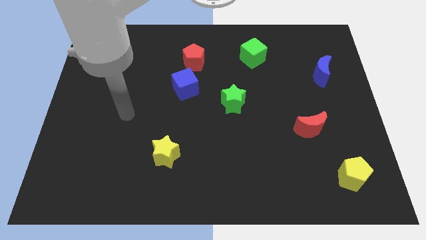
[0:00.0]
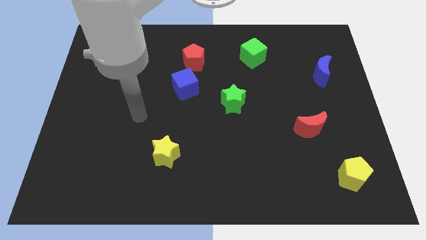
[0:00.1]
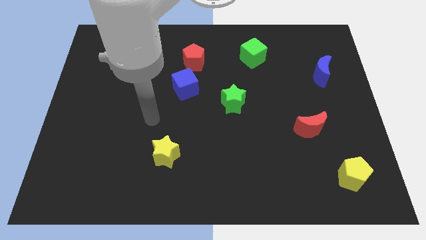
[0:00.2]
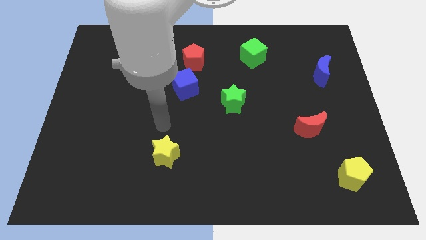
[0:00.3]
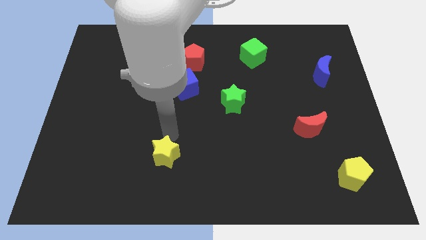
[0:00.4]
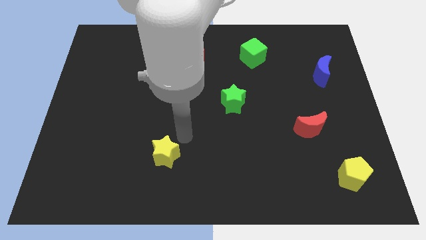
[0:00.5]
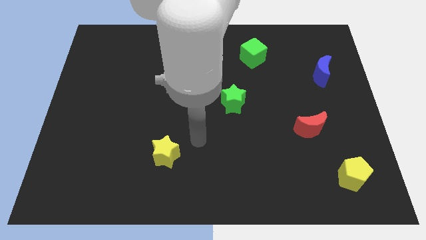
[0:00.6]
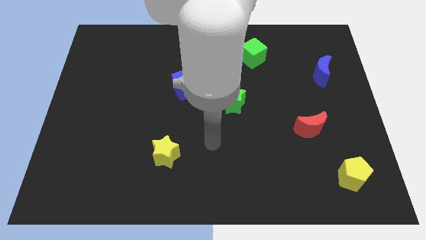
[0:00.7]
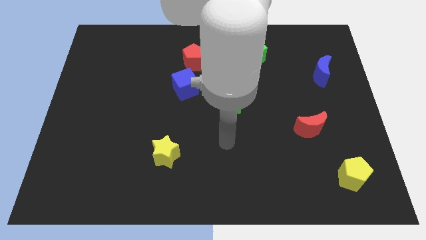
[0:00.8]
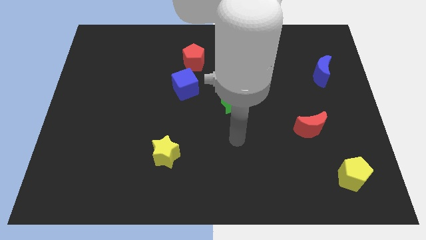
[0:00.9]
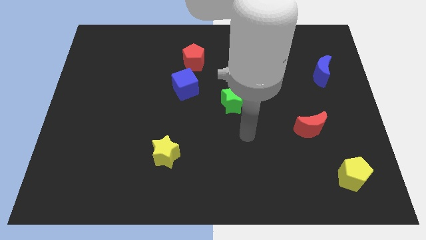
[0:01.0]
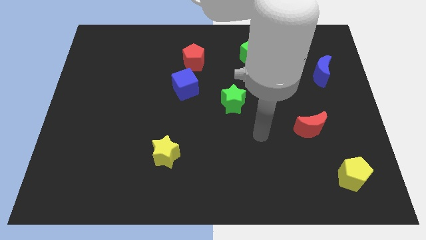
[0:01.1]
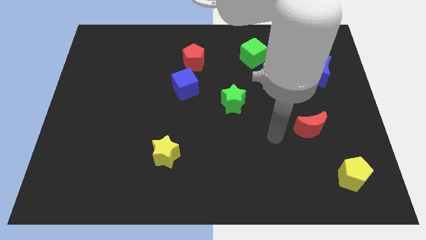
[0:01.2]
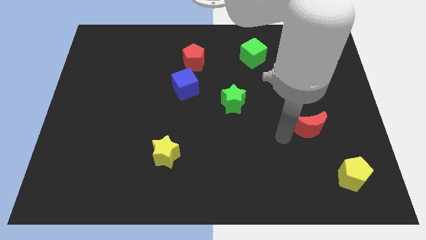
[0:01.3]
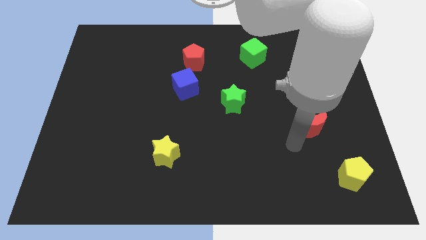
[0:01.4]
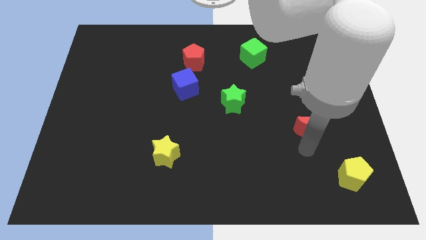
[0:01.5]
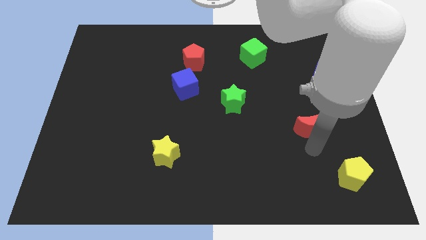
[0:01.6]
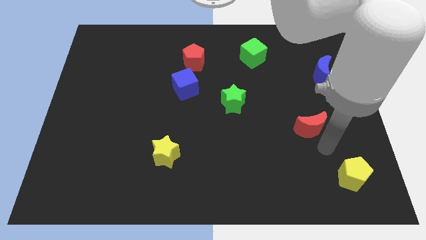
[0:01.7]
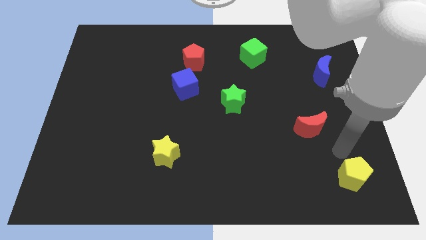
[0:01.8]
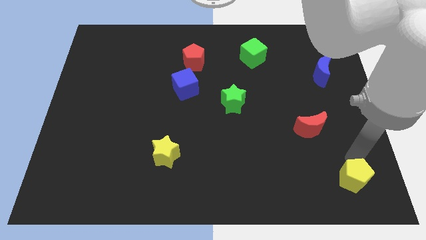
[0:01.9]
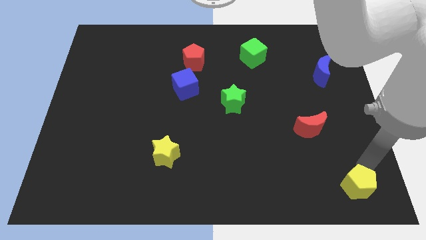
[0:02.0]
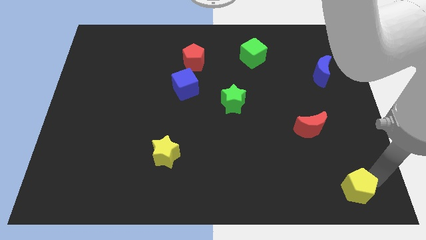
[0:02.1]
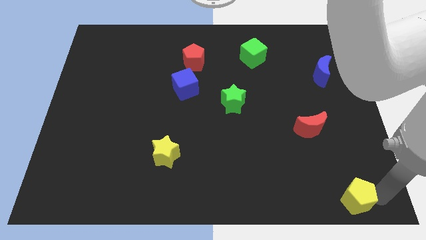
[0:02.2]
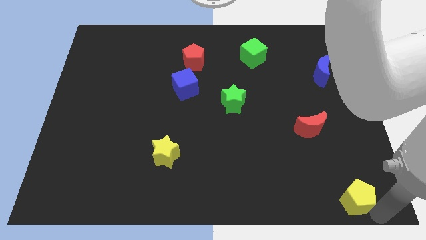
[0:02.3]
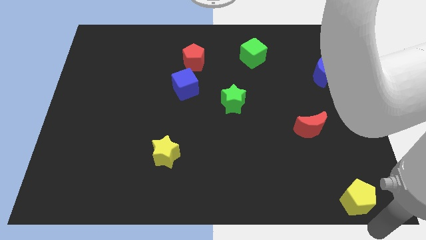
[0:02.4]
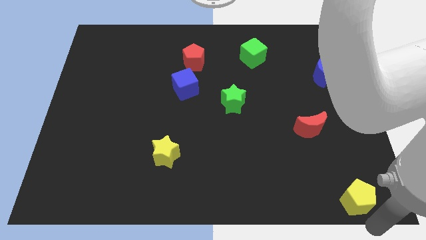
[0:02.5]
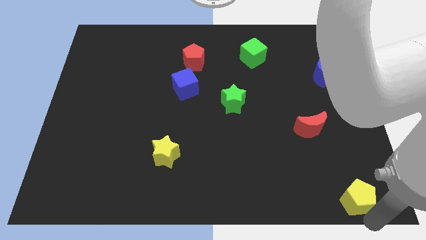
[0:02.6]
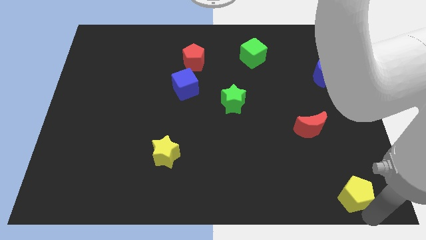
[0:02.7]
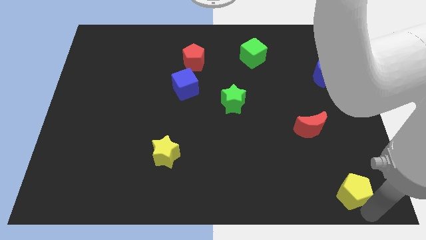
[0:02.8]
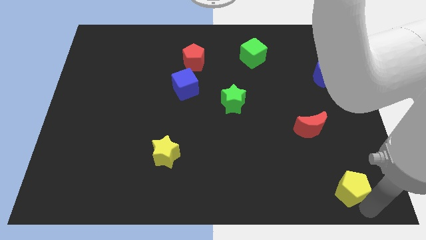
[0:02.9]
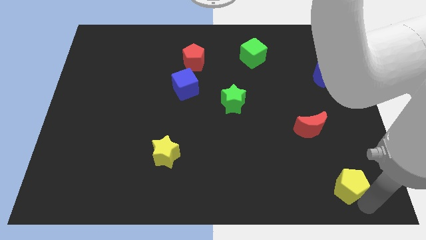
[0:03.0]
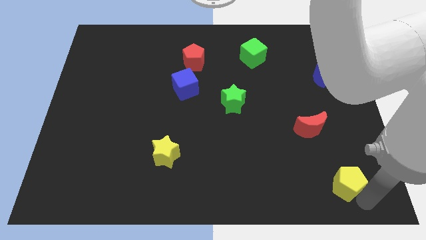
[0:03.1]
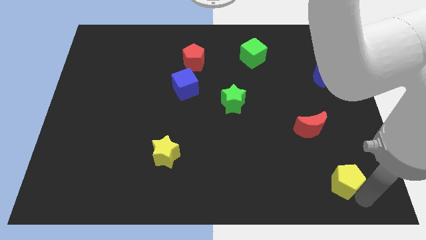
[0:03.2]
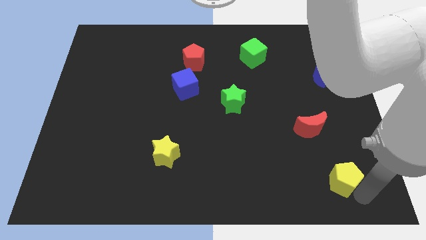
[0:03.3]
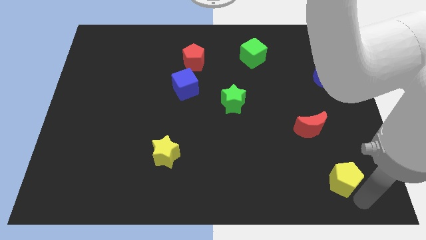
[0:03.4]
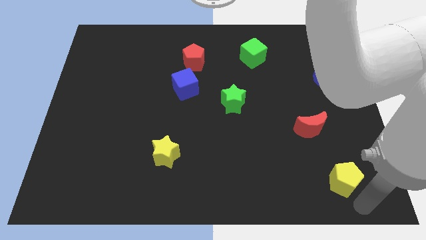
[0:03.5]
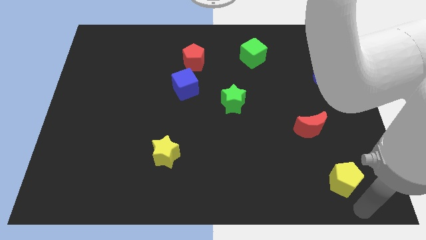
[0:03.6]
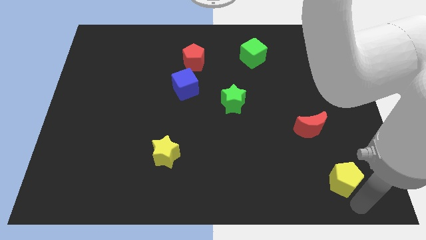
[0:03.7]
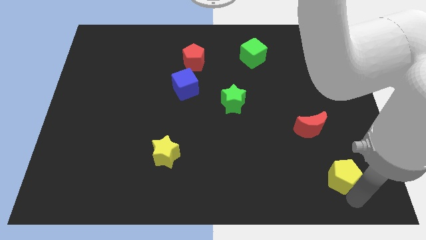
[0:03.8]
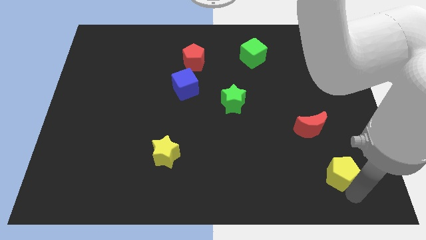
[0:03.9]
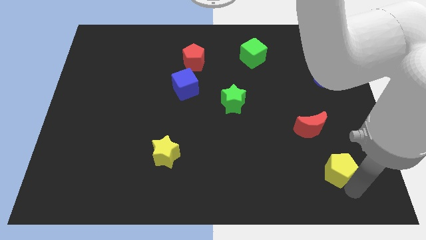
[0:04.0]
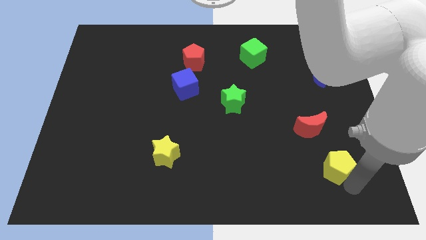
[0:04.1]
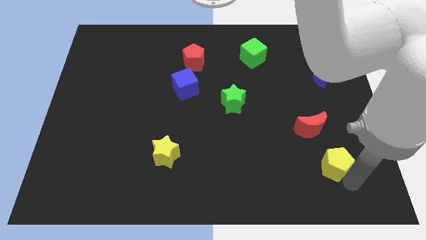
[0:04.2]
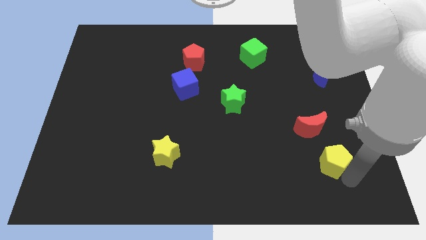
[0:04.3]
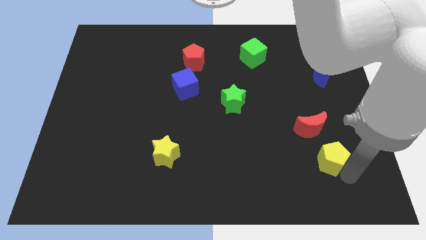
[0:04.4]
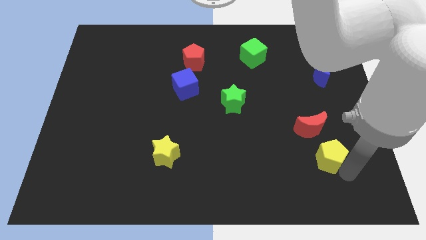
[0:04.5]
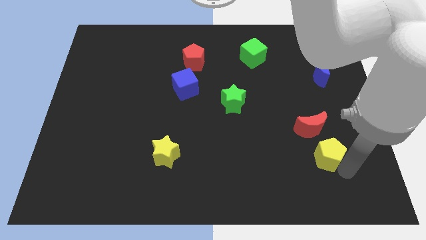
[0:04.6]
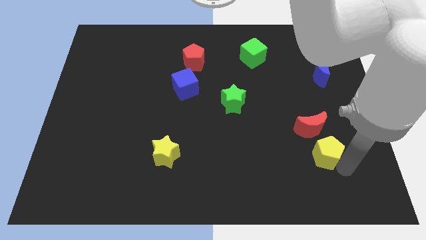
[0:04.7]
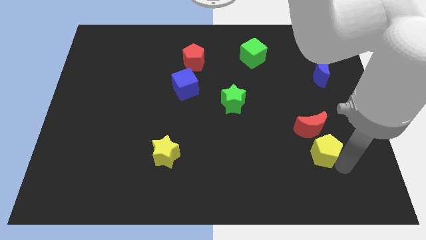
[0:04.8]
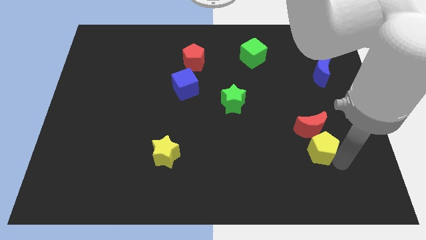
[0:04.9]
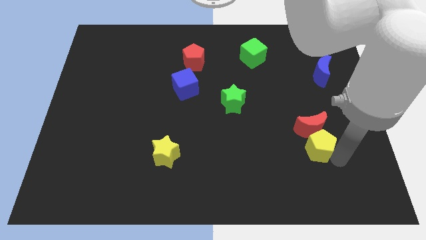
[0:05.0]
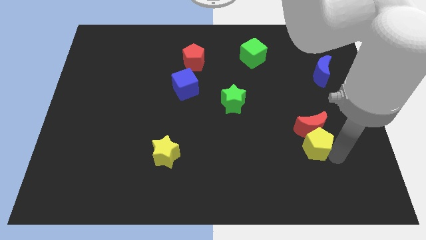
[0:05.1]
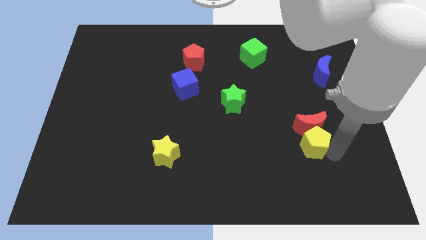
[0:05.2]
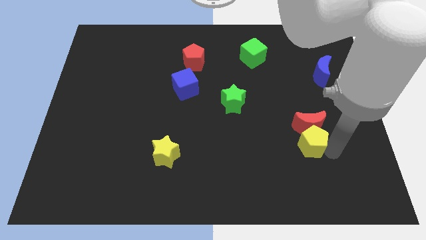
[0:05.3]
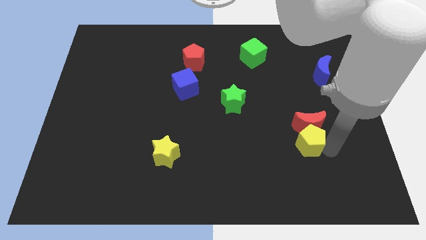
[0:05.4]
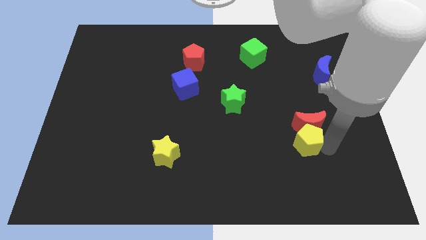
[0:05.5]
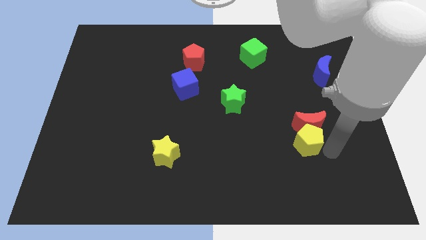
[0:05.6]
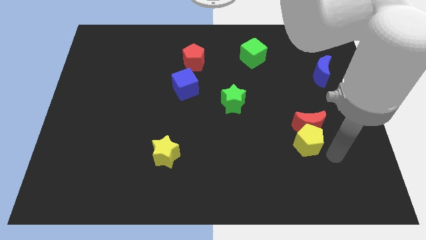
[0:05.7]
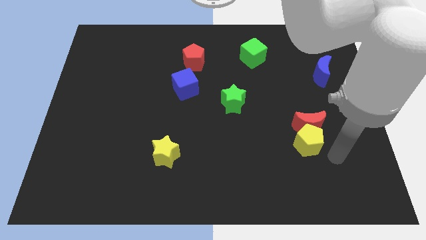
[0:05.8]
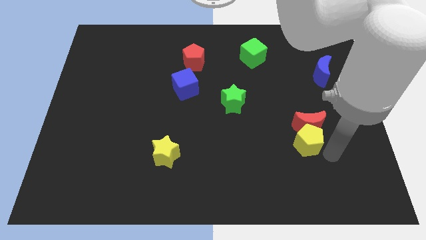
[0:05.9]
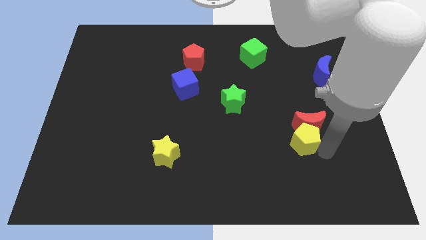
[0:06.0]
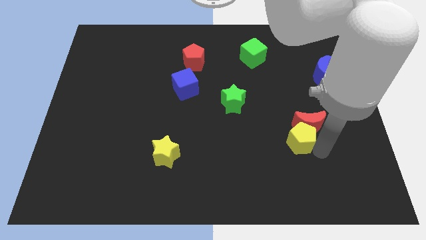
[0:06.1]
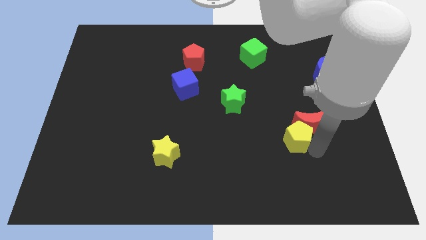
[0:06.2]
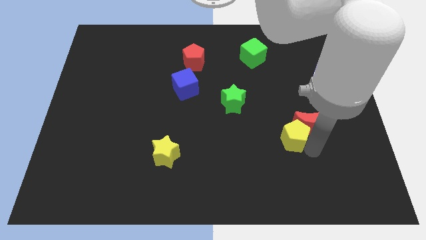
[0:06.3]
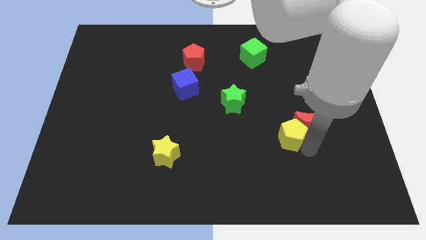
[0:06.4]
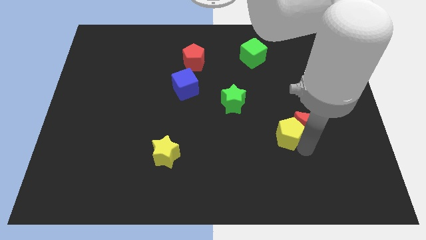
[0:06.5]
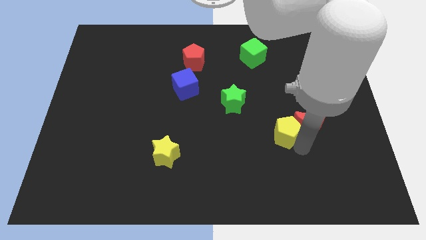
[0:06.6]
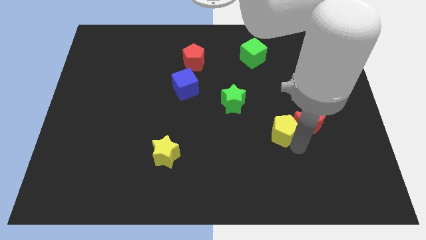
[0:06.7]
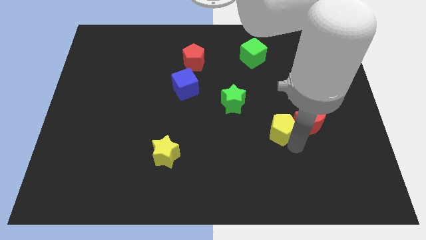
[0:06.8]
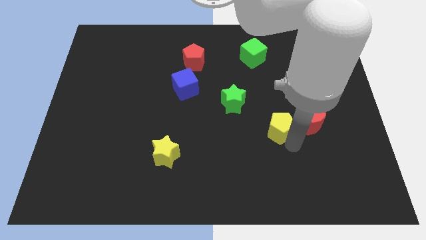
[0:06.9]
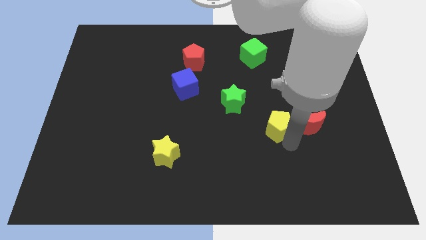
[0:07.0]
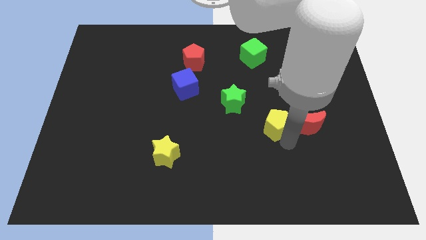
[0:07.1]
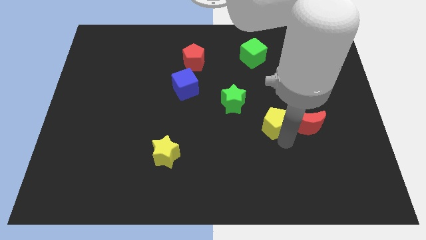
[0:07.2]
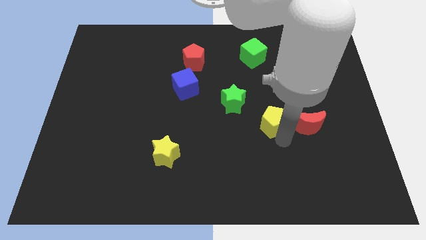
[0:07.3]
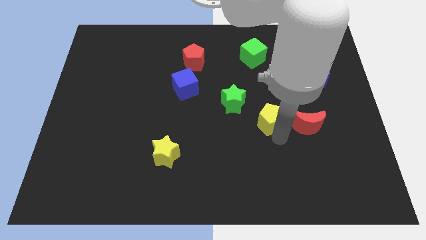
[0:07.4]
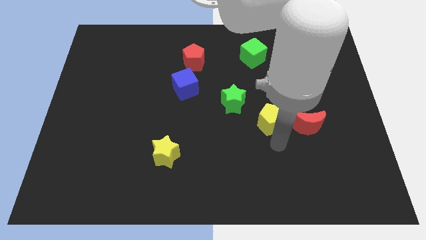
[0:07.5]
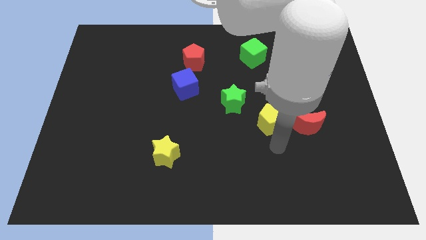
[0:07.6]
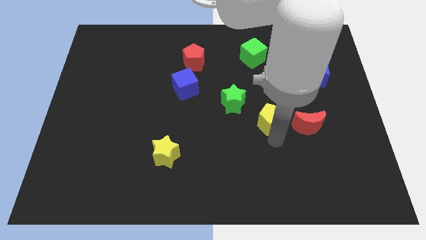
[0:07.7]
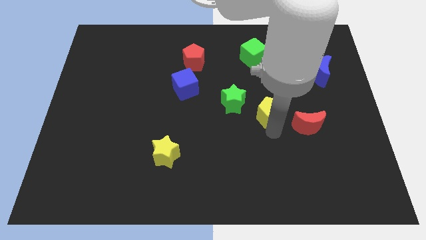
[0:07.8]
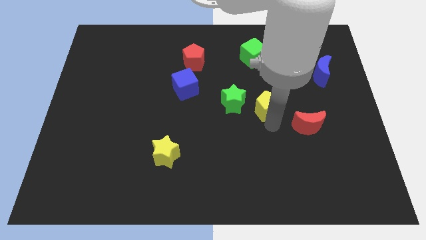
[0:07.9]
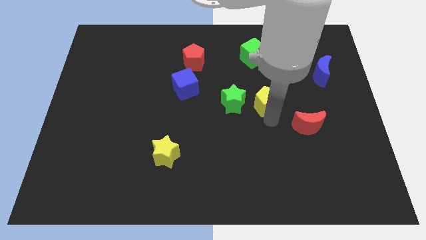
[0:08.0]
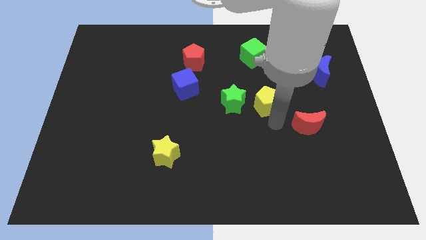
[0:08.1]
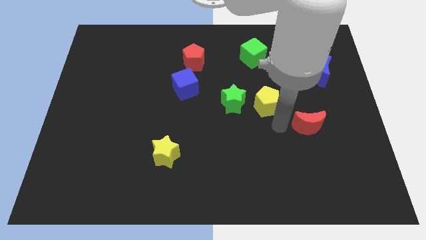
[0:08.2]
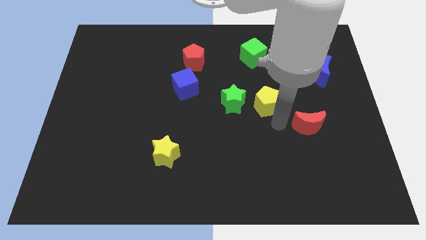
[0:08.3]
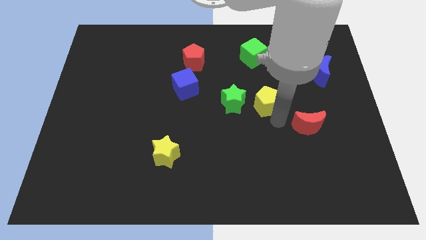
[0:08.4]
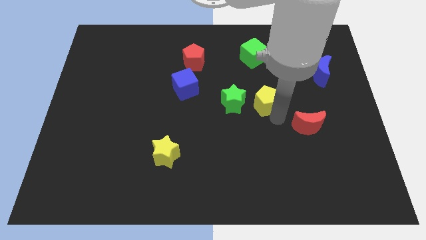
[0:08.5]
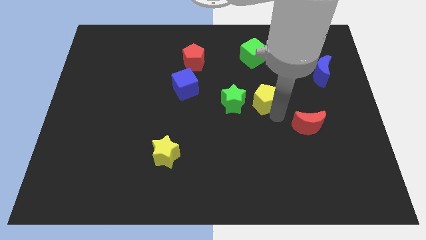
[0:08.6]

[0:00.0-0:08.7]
move the yellow pentagon to the bottom side of the green cube
